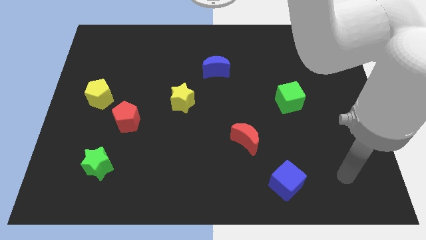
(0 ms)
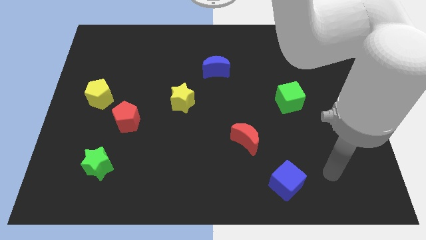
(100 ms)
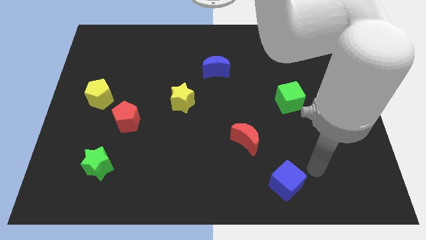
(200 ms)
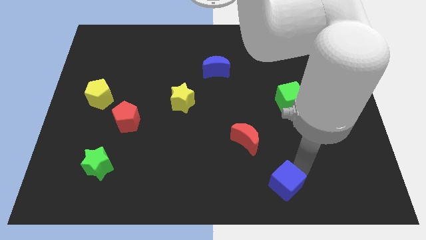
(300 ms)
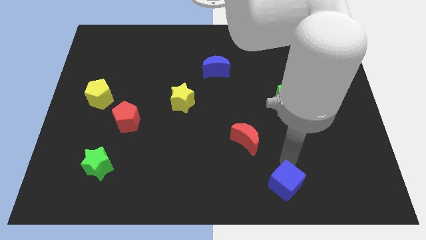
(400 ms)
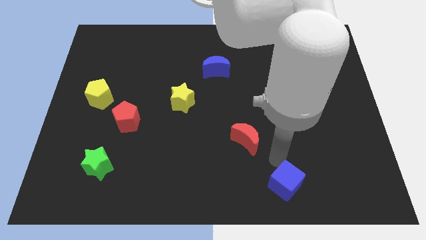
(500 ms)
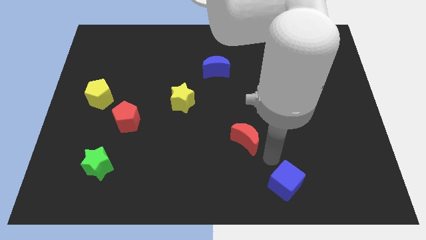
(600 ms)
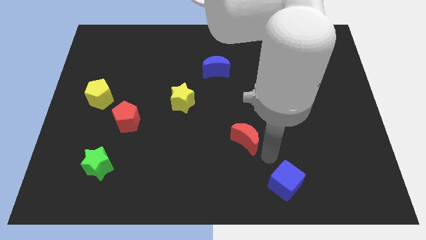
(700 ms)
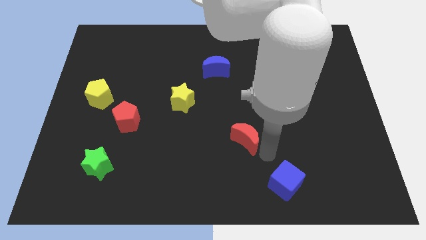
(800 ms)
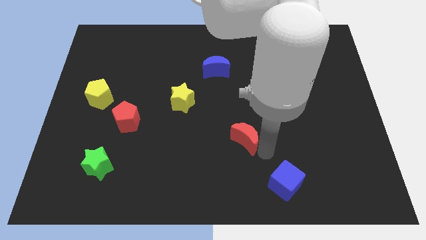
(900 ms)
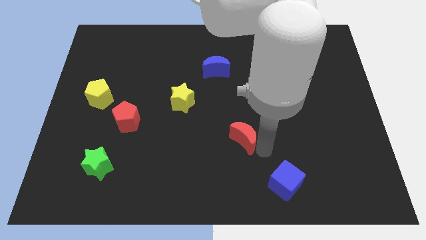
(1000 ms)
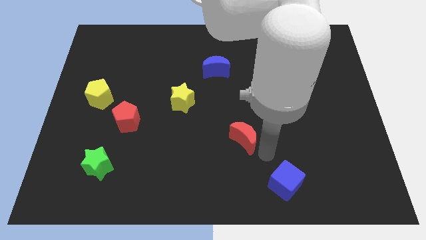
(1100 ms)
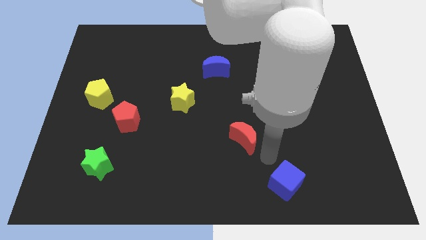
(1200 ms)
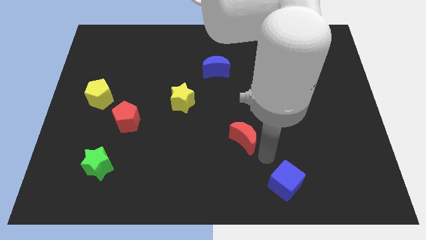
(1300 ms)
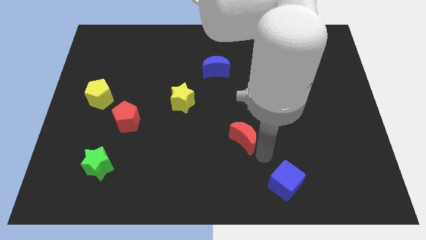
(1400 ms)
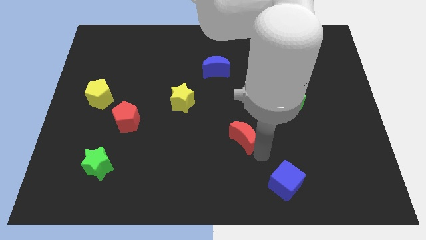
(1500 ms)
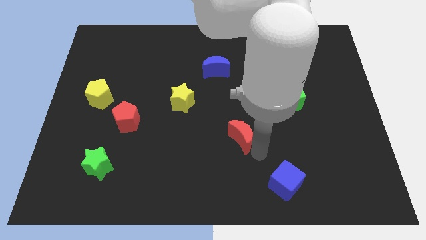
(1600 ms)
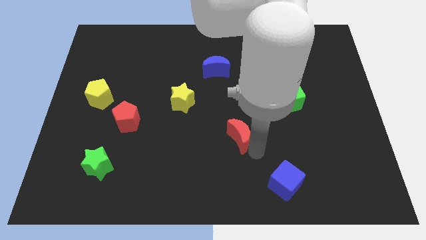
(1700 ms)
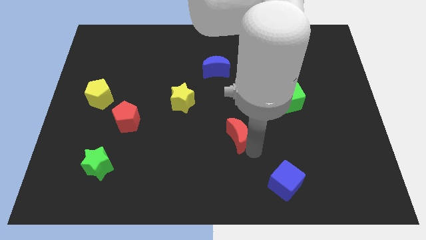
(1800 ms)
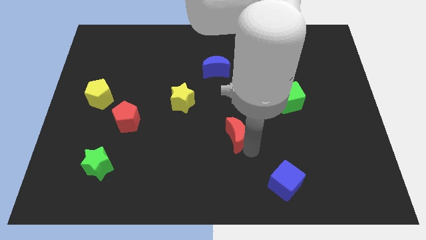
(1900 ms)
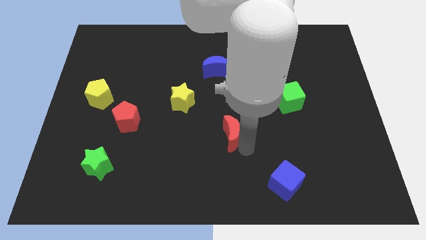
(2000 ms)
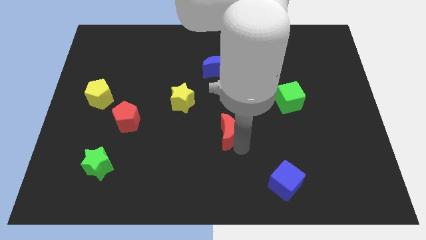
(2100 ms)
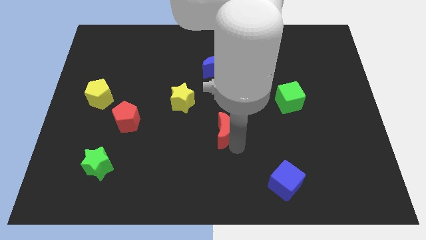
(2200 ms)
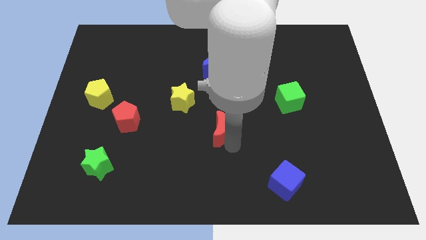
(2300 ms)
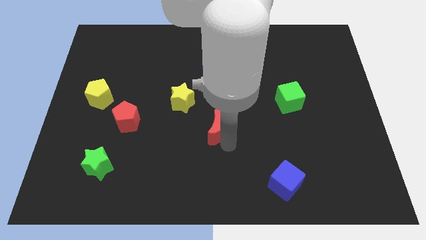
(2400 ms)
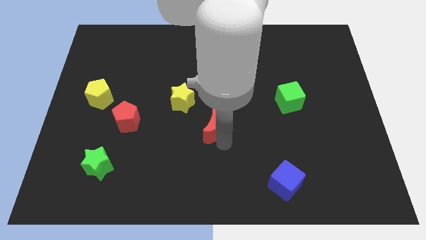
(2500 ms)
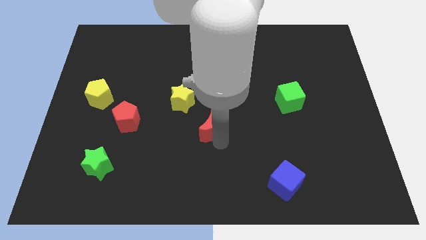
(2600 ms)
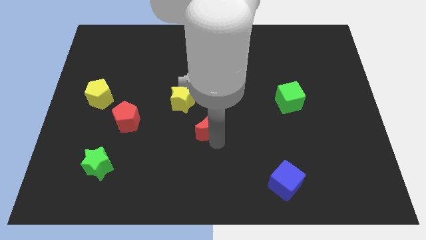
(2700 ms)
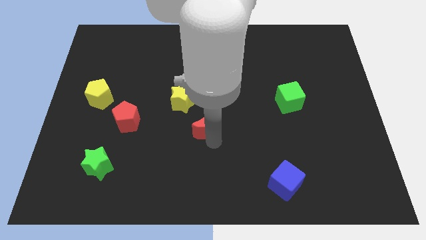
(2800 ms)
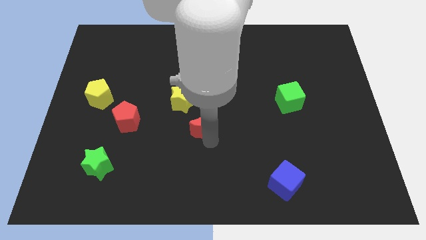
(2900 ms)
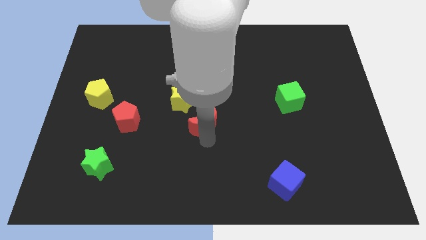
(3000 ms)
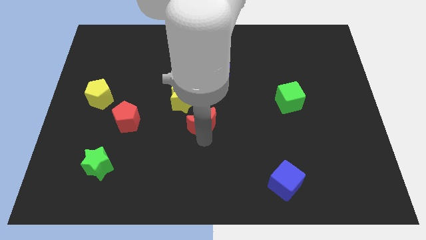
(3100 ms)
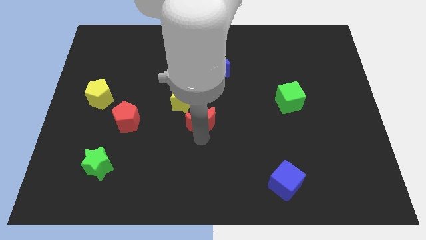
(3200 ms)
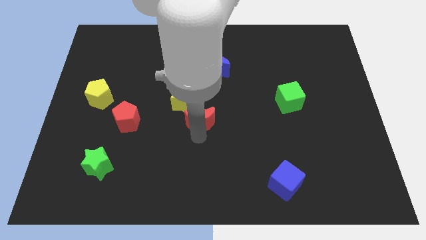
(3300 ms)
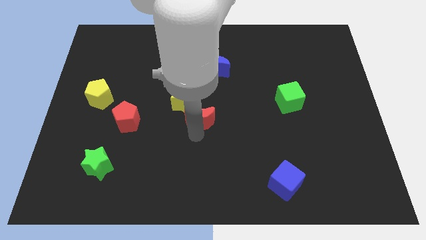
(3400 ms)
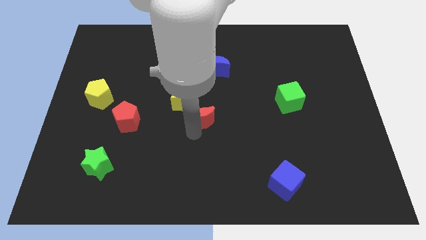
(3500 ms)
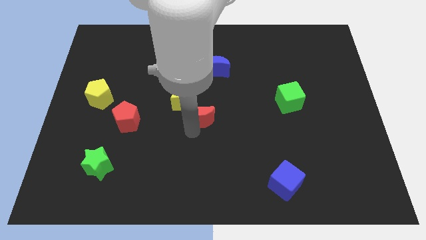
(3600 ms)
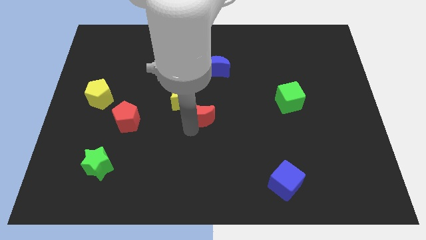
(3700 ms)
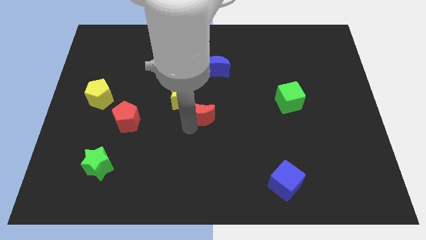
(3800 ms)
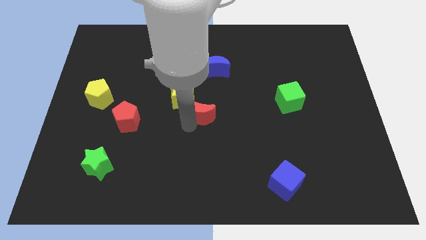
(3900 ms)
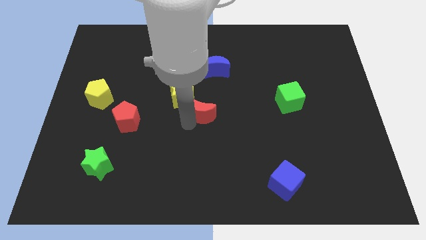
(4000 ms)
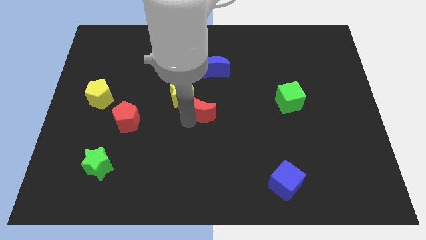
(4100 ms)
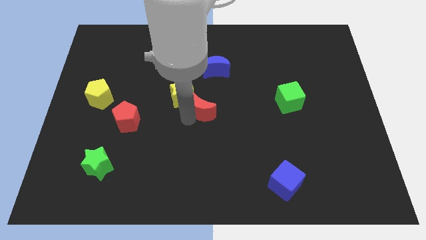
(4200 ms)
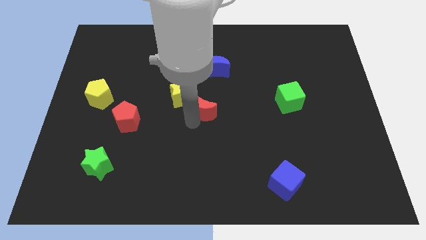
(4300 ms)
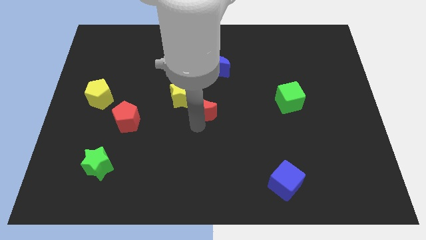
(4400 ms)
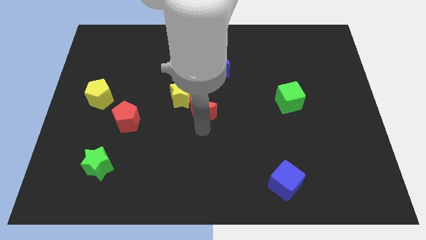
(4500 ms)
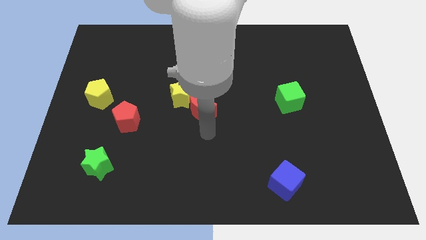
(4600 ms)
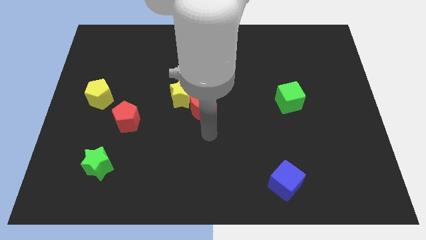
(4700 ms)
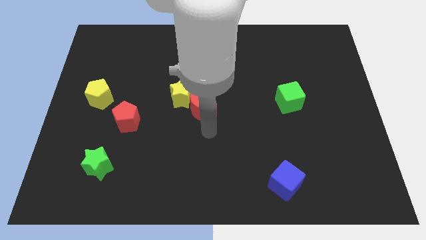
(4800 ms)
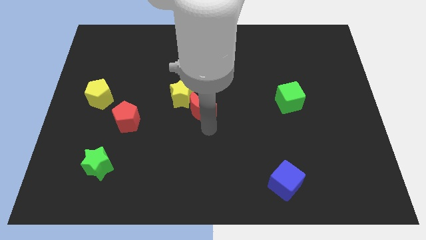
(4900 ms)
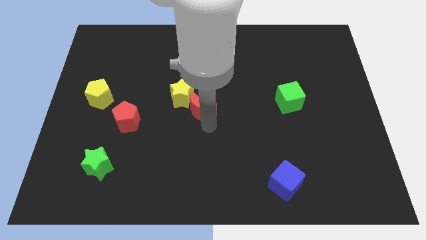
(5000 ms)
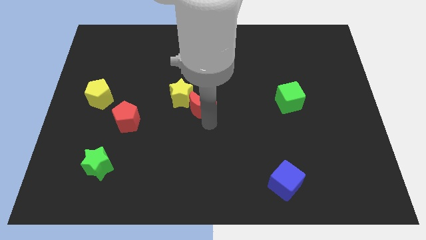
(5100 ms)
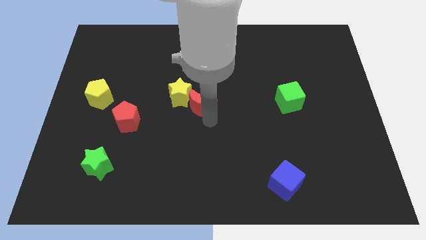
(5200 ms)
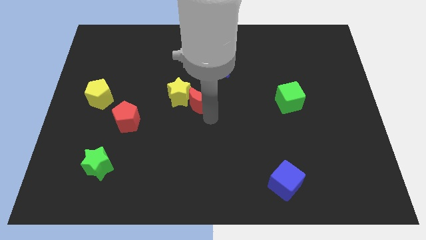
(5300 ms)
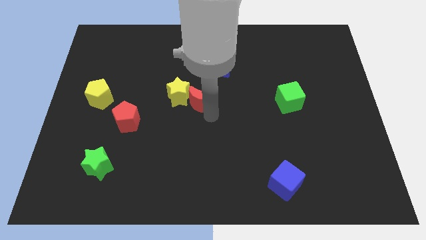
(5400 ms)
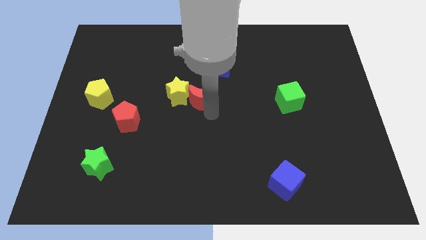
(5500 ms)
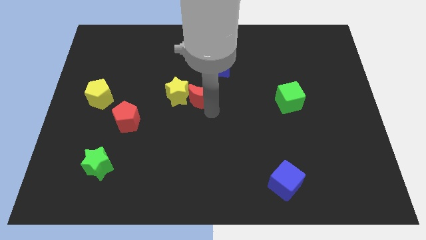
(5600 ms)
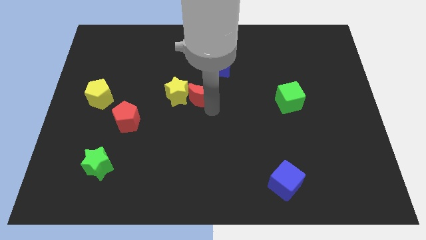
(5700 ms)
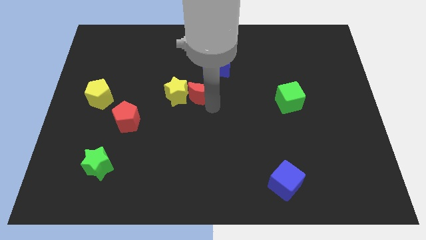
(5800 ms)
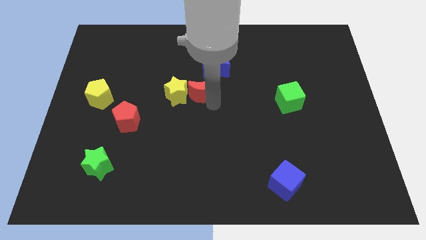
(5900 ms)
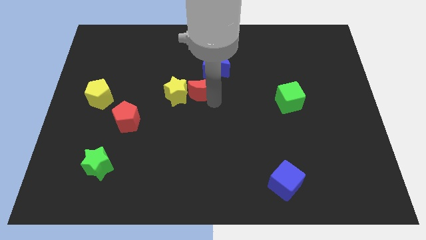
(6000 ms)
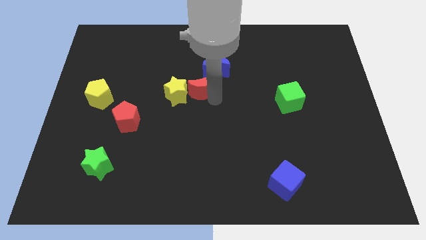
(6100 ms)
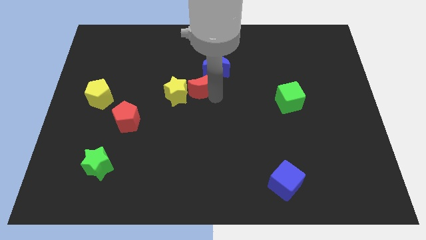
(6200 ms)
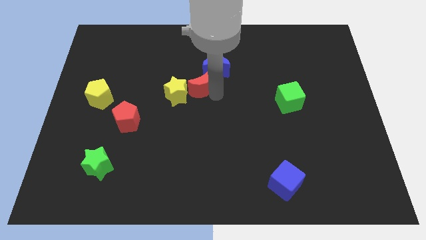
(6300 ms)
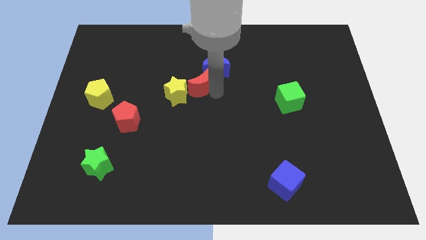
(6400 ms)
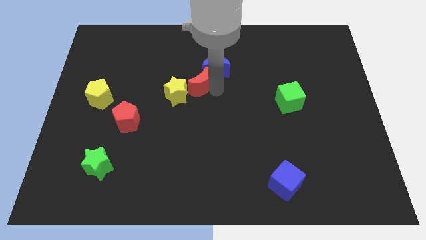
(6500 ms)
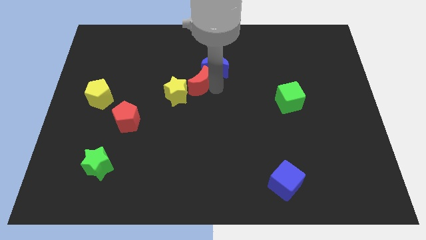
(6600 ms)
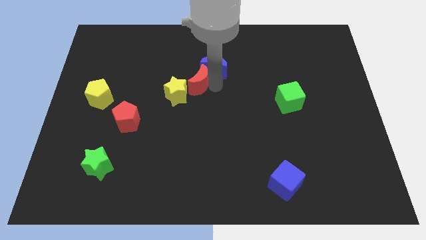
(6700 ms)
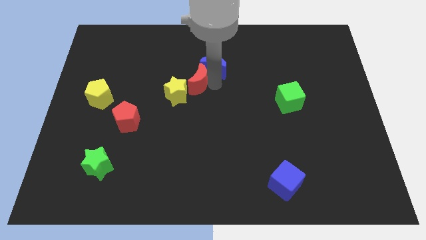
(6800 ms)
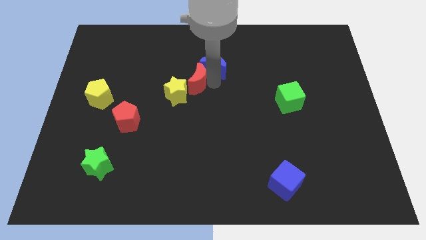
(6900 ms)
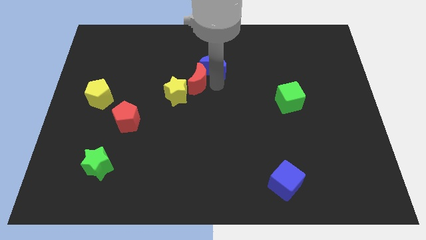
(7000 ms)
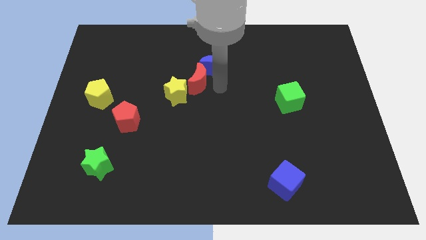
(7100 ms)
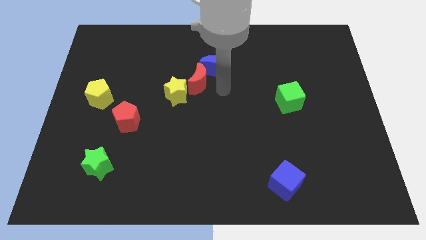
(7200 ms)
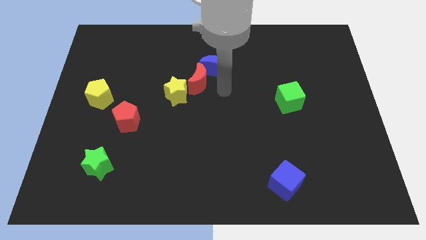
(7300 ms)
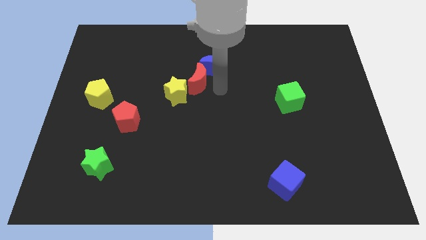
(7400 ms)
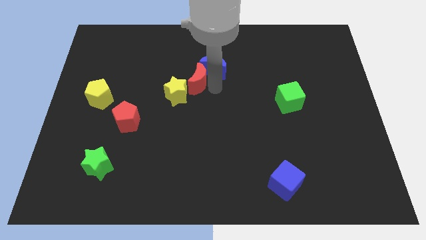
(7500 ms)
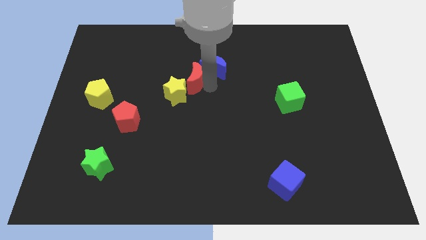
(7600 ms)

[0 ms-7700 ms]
slide the red moon upwards and then to the left

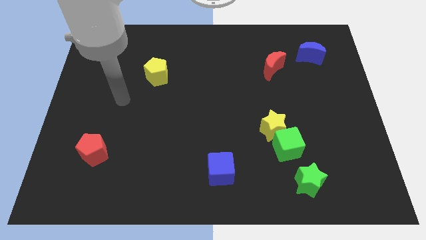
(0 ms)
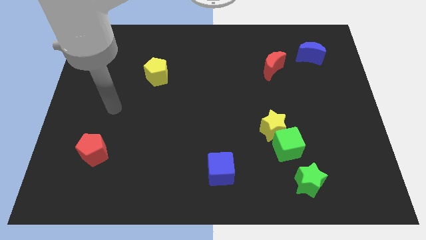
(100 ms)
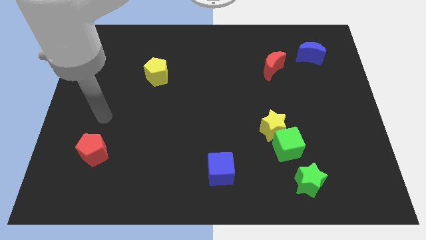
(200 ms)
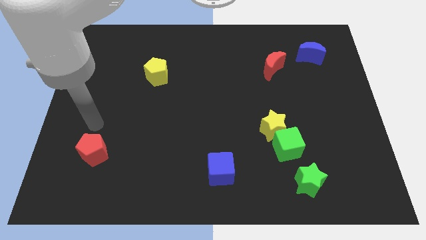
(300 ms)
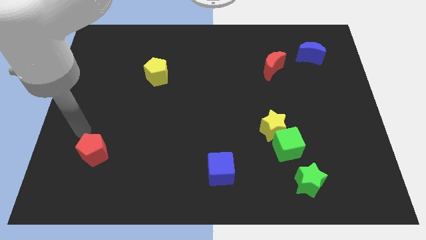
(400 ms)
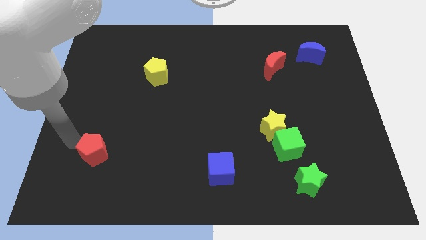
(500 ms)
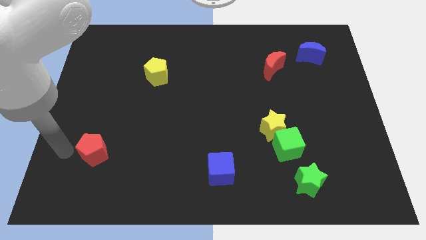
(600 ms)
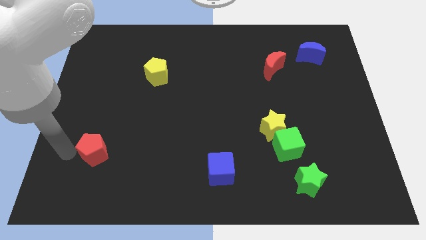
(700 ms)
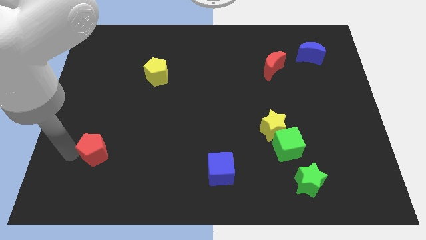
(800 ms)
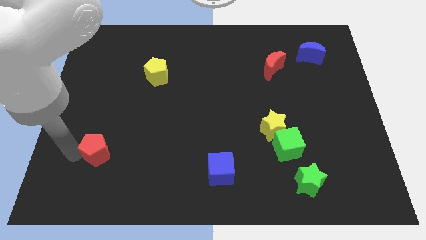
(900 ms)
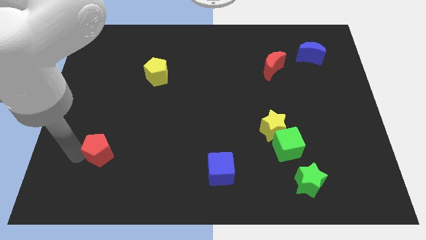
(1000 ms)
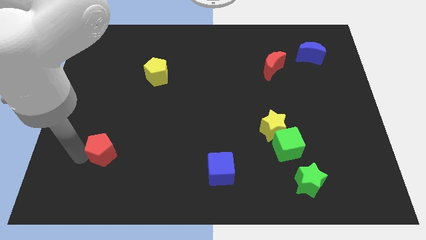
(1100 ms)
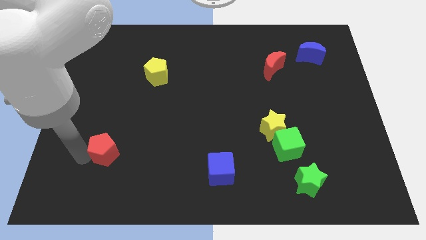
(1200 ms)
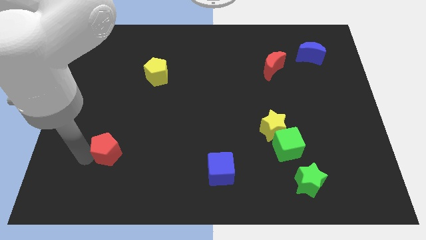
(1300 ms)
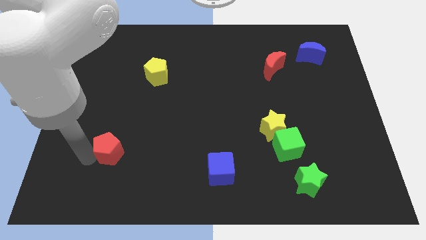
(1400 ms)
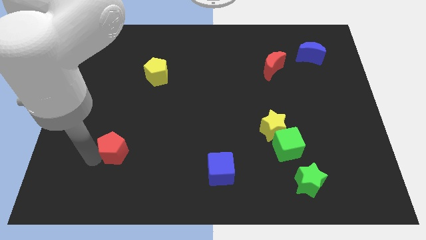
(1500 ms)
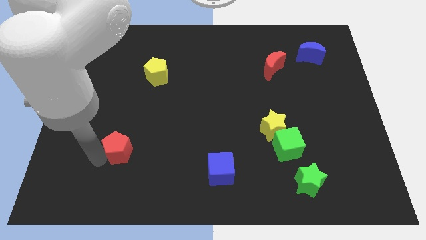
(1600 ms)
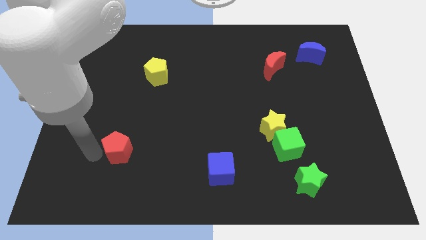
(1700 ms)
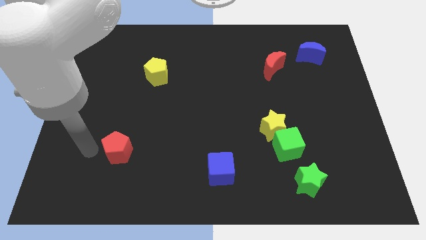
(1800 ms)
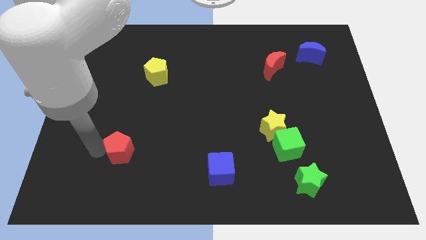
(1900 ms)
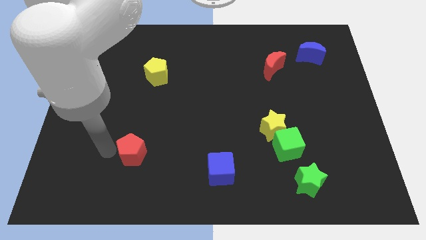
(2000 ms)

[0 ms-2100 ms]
slide the red pentagon to the right a bit
